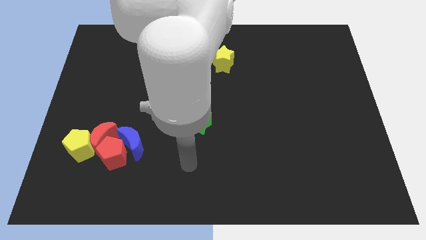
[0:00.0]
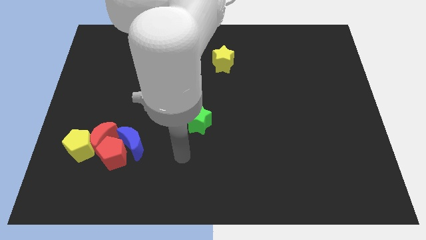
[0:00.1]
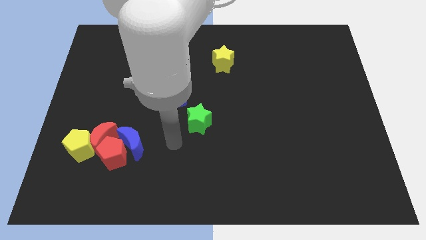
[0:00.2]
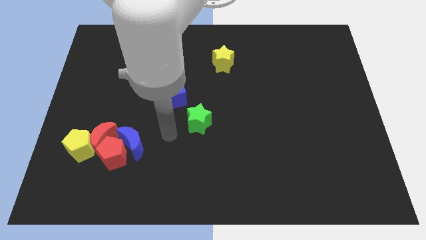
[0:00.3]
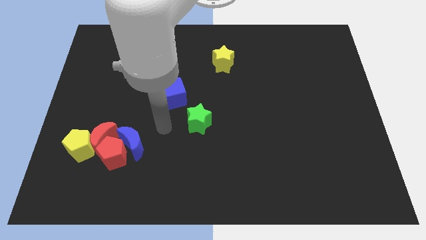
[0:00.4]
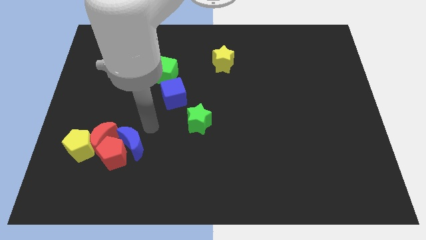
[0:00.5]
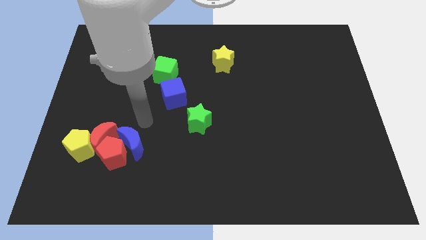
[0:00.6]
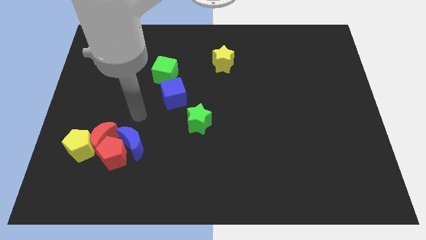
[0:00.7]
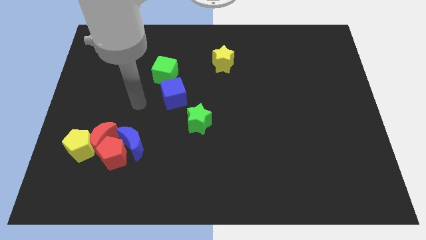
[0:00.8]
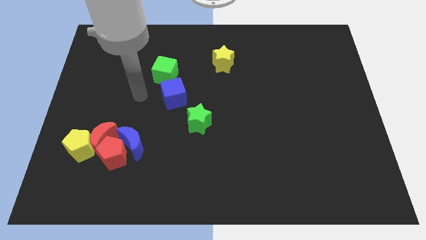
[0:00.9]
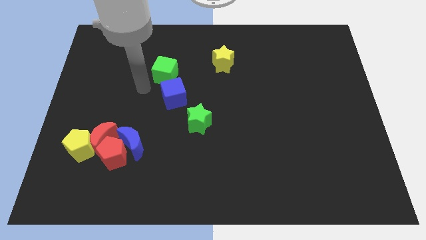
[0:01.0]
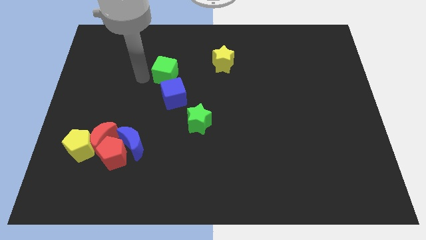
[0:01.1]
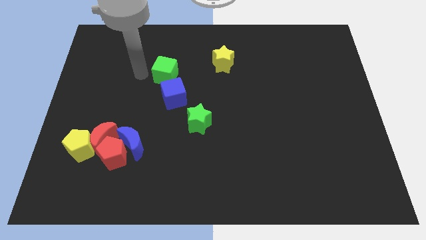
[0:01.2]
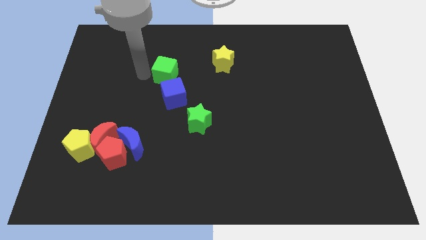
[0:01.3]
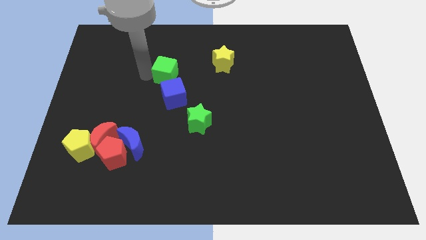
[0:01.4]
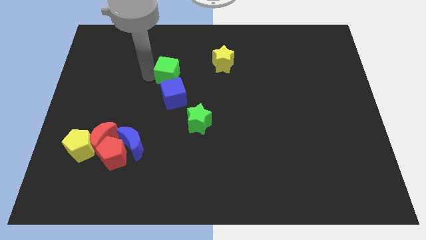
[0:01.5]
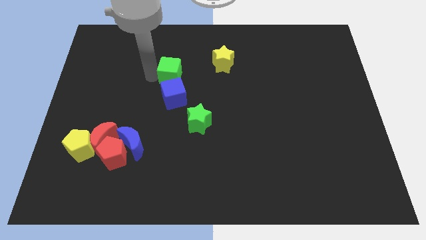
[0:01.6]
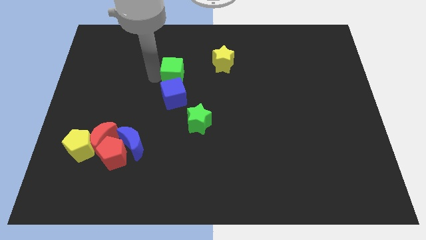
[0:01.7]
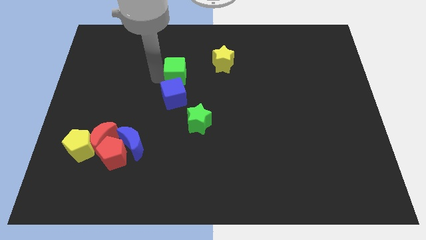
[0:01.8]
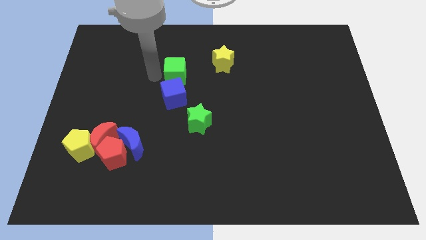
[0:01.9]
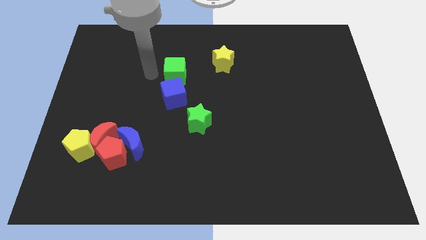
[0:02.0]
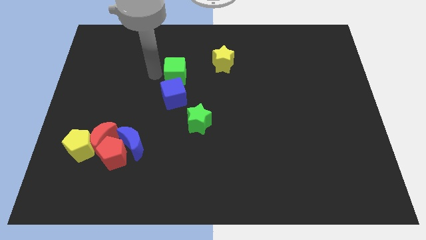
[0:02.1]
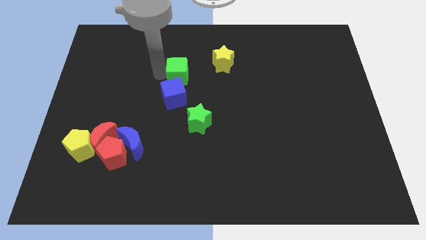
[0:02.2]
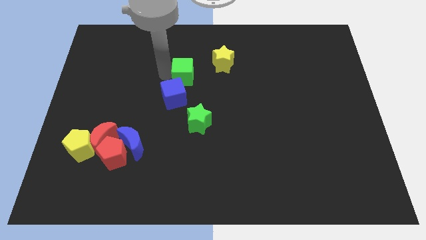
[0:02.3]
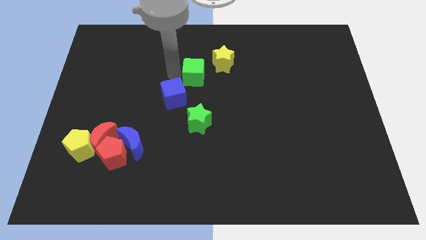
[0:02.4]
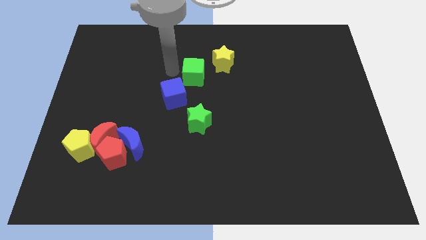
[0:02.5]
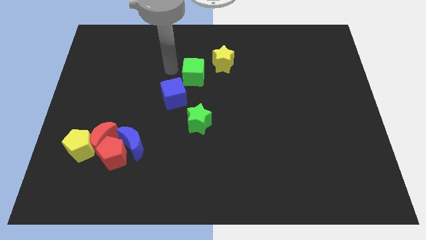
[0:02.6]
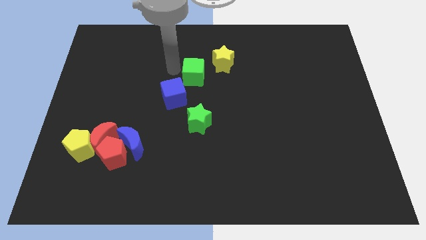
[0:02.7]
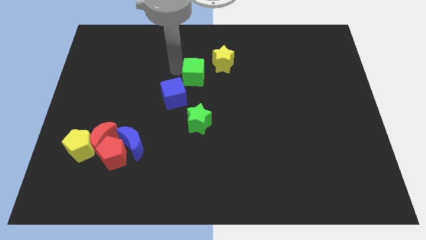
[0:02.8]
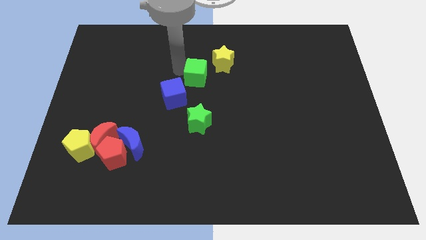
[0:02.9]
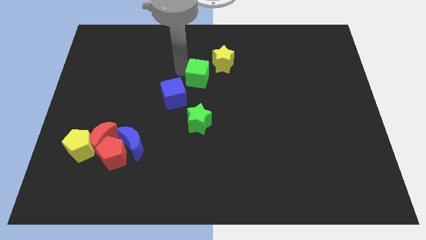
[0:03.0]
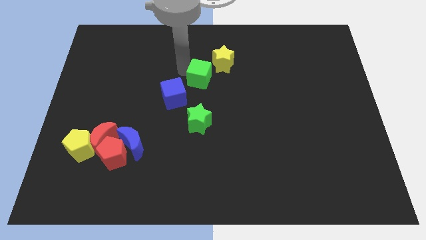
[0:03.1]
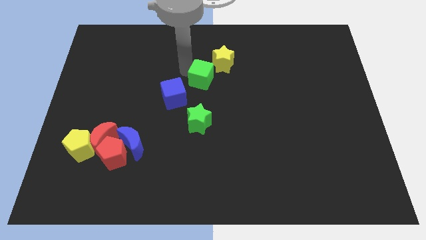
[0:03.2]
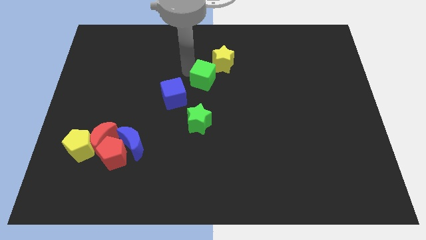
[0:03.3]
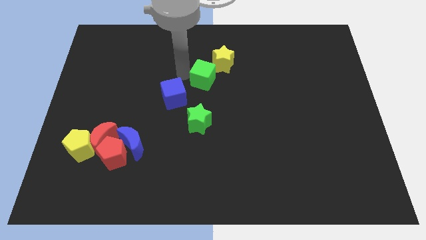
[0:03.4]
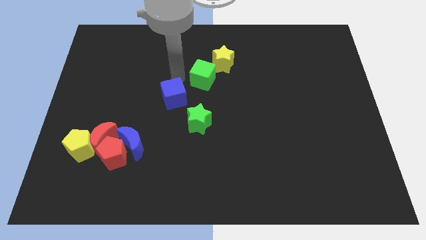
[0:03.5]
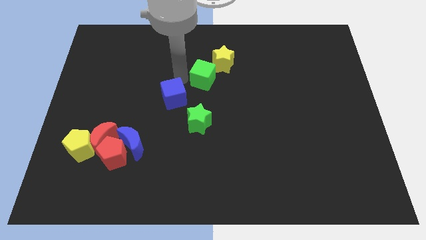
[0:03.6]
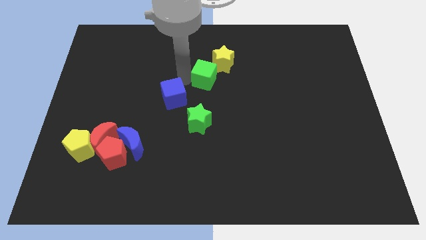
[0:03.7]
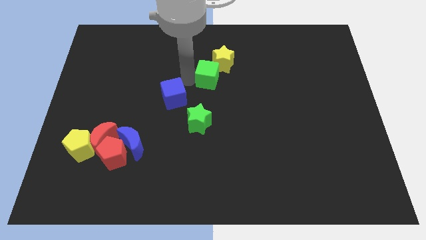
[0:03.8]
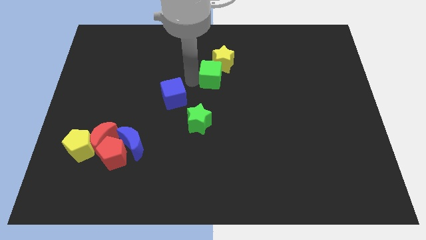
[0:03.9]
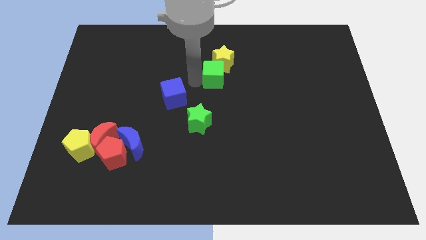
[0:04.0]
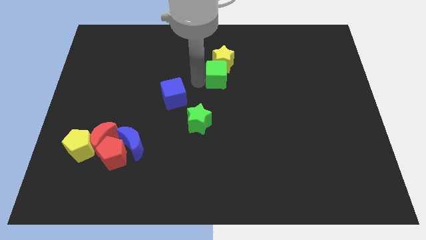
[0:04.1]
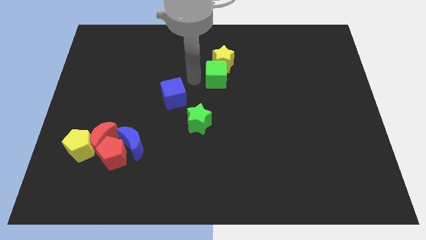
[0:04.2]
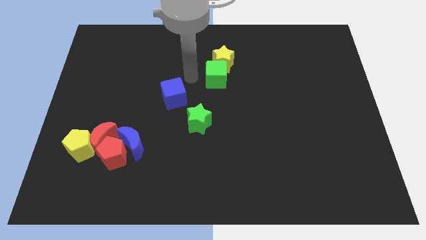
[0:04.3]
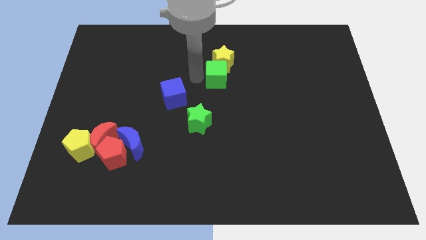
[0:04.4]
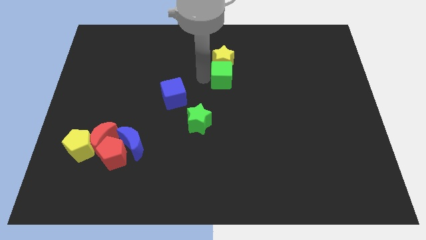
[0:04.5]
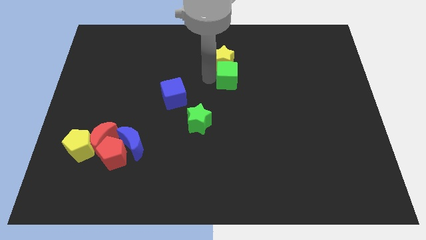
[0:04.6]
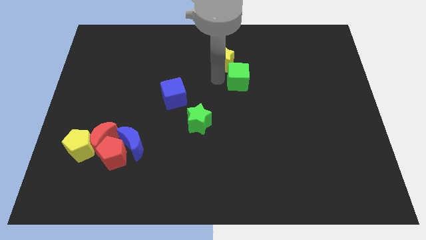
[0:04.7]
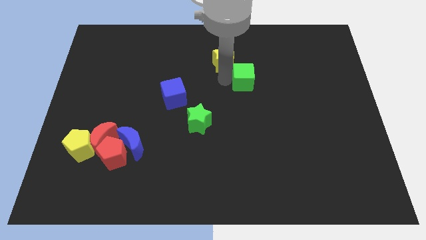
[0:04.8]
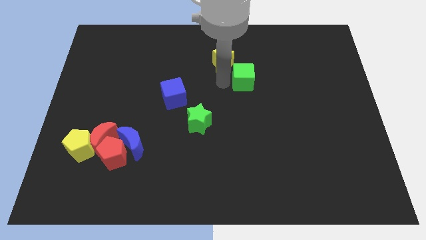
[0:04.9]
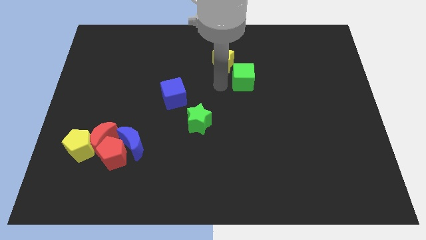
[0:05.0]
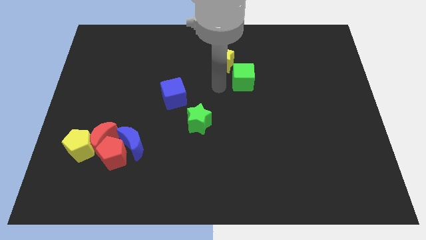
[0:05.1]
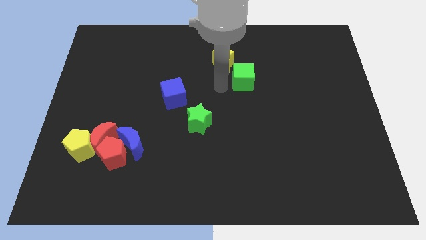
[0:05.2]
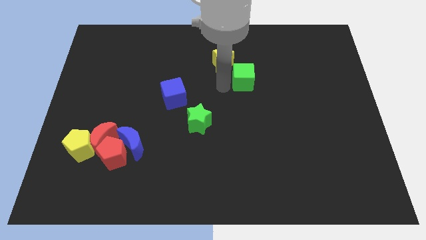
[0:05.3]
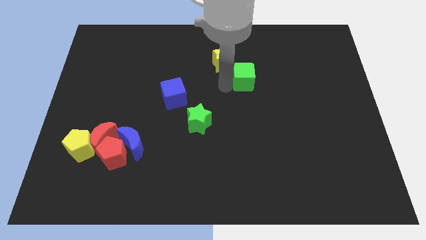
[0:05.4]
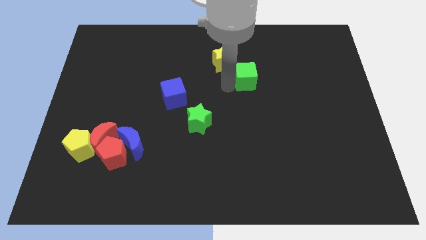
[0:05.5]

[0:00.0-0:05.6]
move the green cube to the right

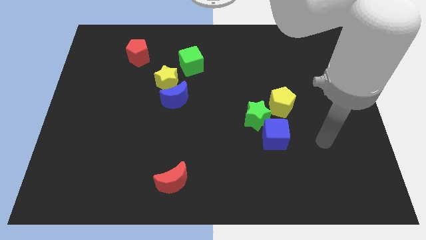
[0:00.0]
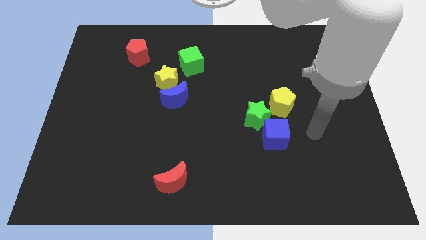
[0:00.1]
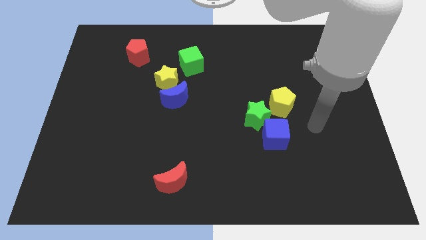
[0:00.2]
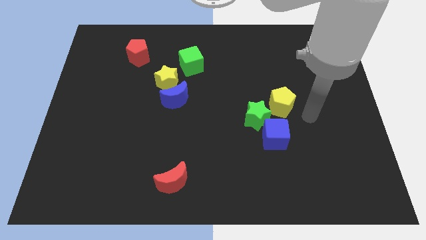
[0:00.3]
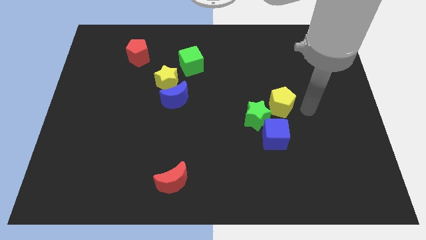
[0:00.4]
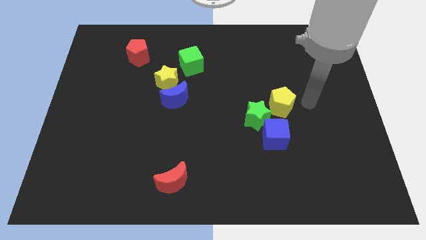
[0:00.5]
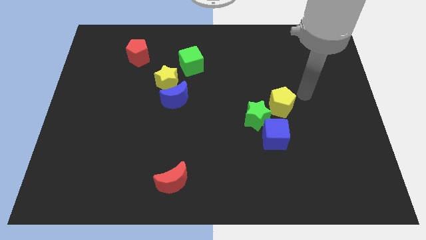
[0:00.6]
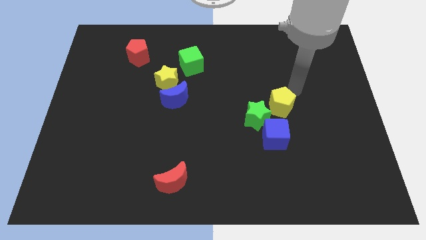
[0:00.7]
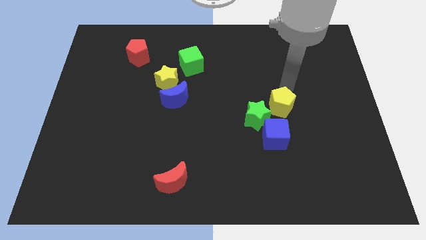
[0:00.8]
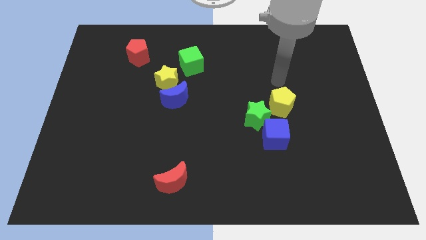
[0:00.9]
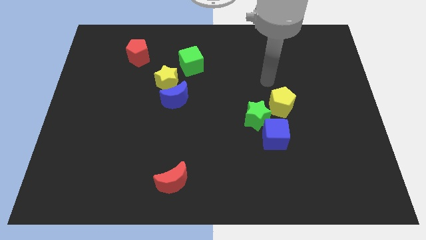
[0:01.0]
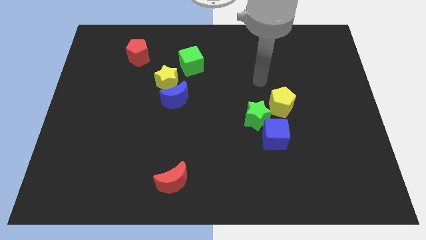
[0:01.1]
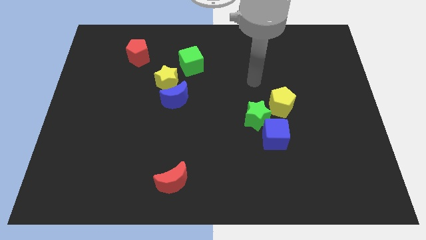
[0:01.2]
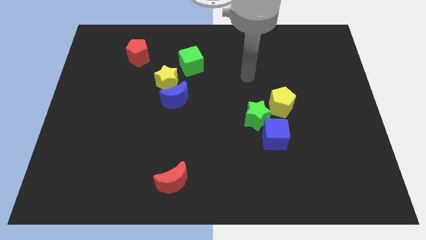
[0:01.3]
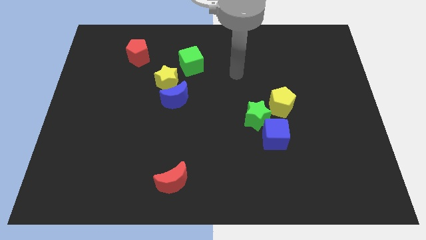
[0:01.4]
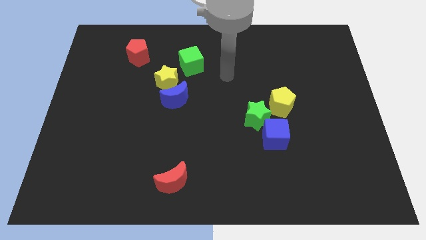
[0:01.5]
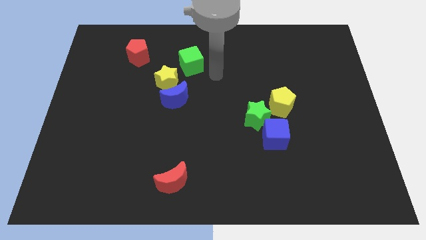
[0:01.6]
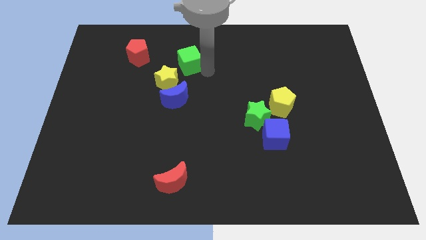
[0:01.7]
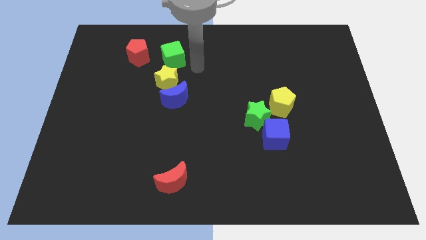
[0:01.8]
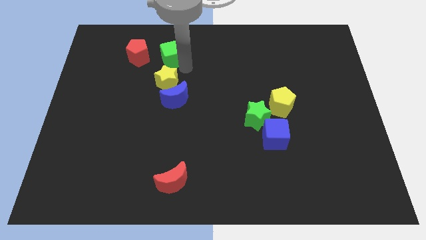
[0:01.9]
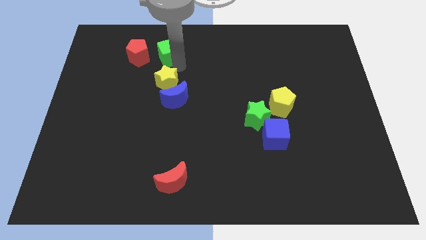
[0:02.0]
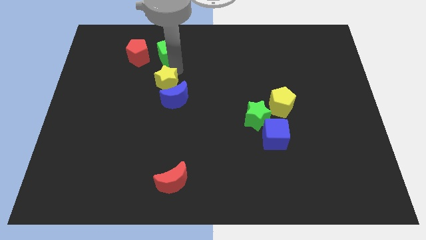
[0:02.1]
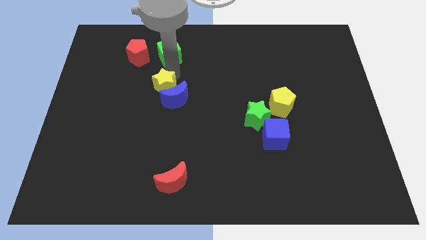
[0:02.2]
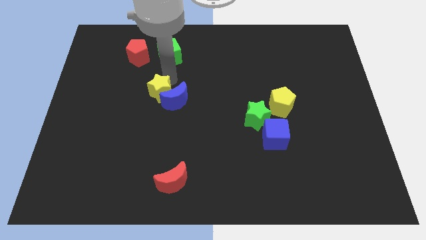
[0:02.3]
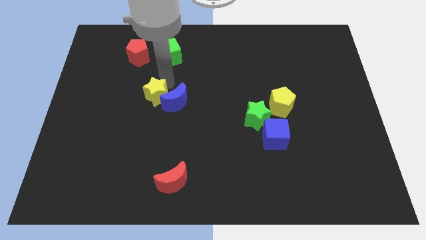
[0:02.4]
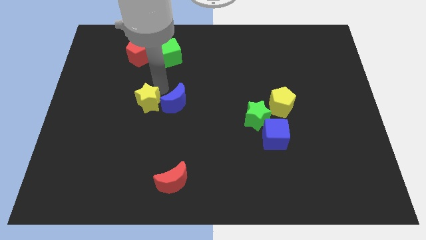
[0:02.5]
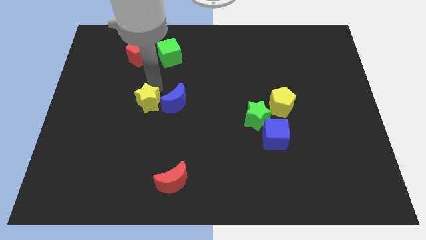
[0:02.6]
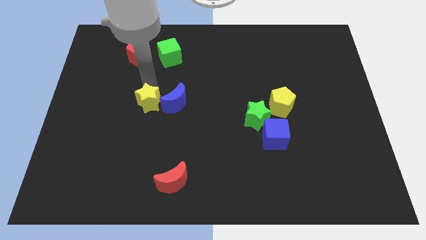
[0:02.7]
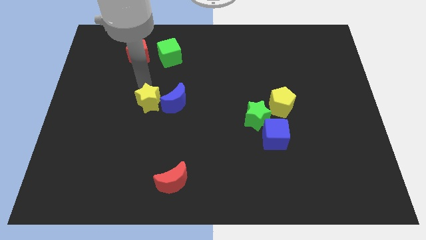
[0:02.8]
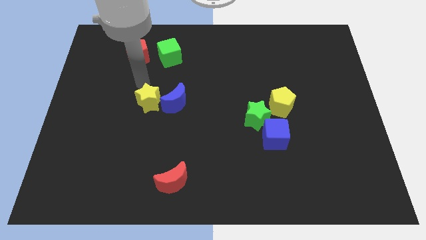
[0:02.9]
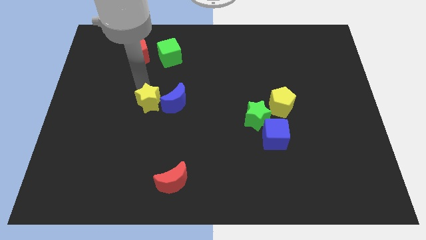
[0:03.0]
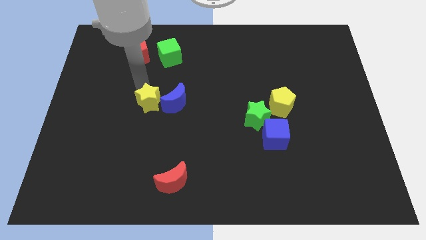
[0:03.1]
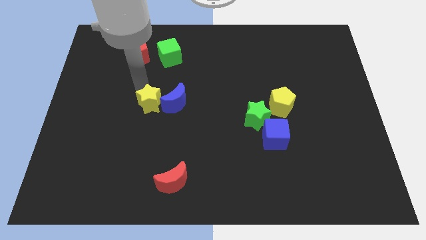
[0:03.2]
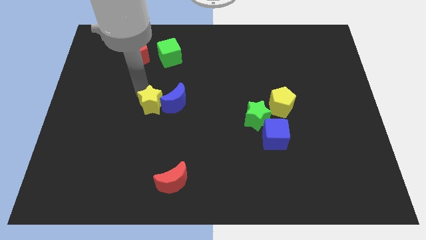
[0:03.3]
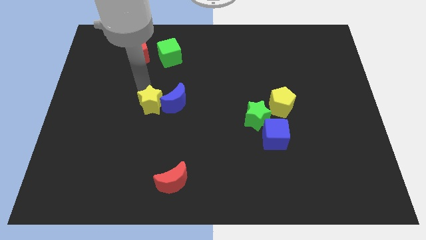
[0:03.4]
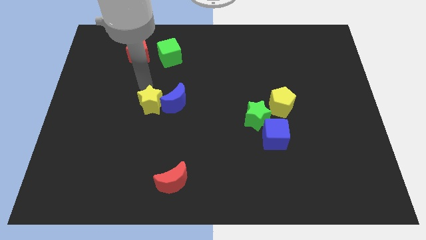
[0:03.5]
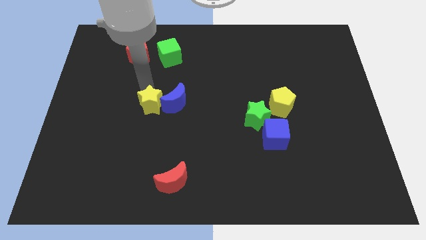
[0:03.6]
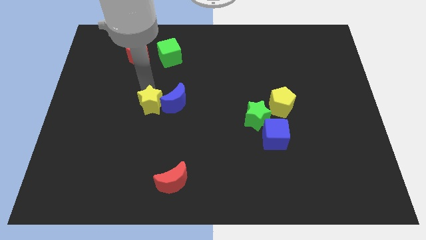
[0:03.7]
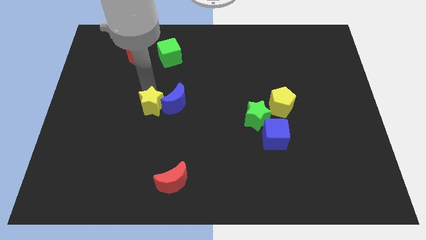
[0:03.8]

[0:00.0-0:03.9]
move the yellow star a little downwards
